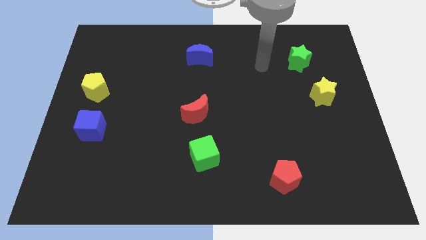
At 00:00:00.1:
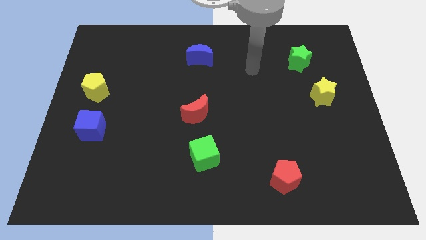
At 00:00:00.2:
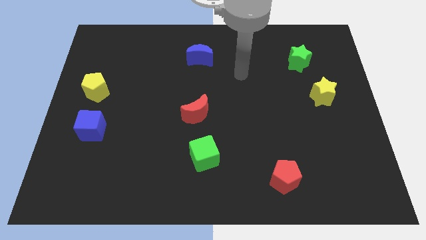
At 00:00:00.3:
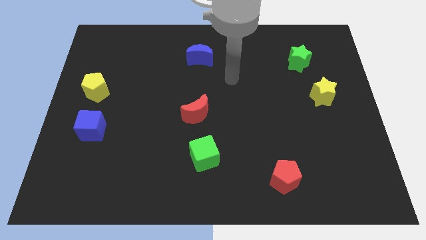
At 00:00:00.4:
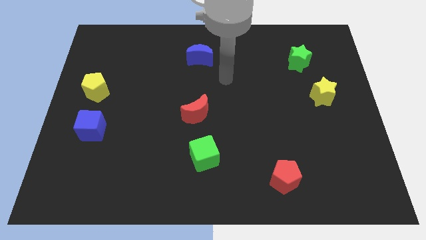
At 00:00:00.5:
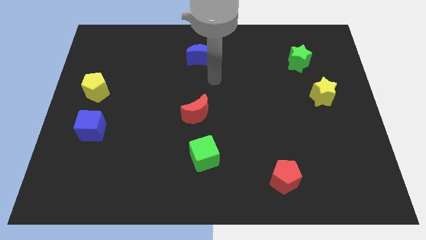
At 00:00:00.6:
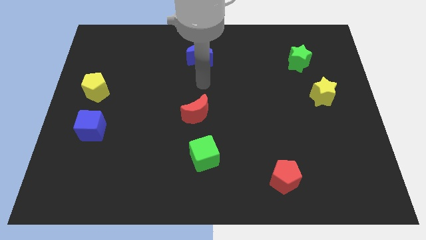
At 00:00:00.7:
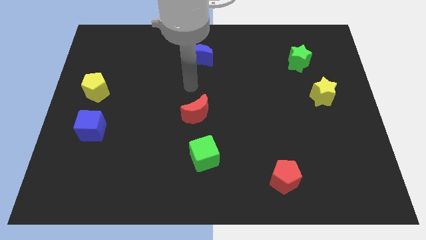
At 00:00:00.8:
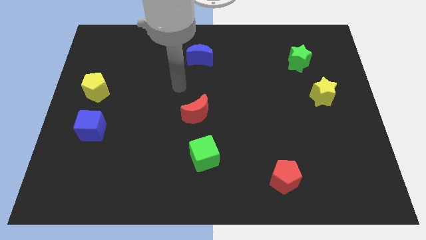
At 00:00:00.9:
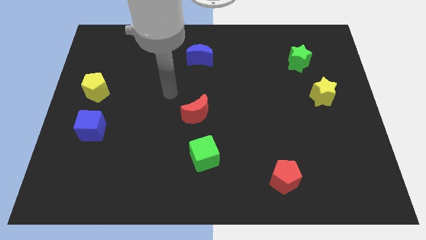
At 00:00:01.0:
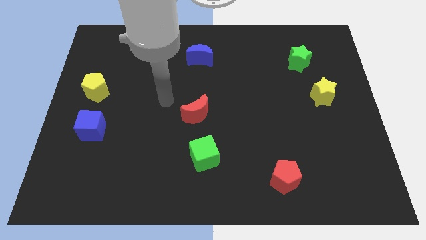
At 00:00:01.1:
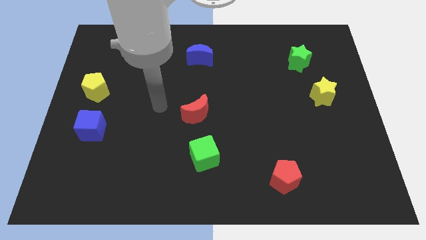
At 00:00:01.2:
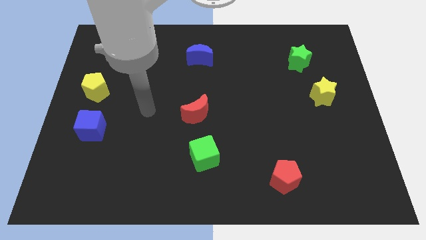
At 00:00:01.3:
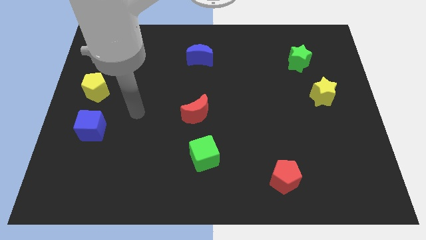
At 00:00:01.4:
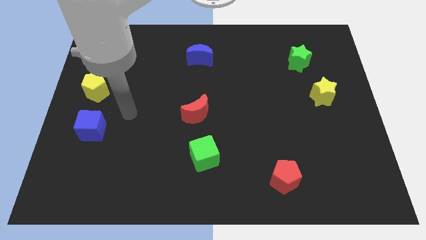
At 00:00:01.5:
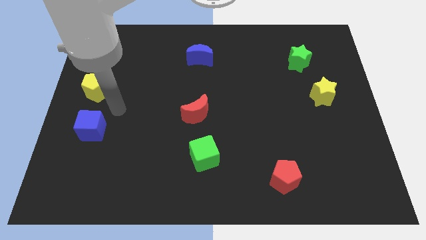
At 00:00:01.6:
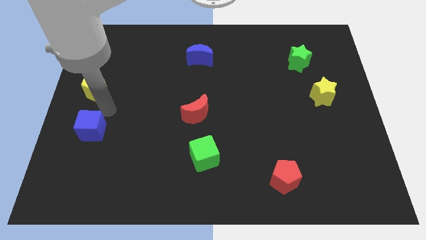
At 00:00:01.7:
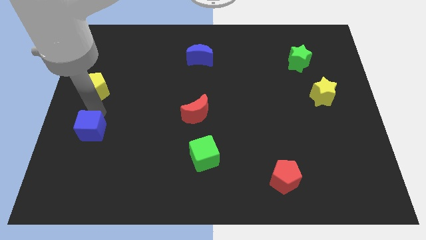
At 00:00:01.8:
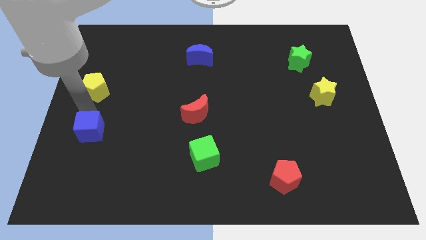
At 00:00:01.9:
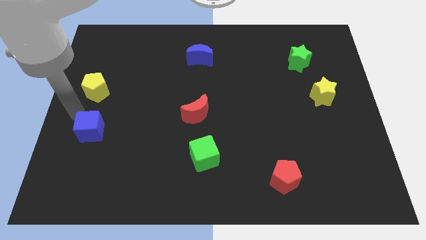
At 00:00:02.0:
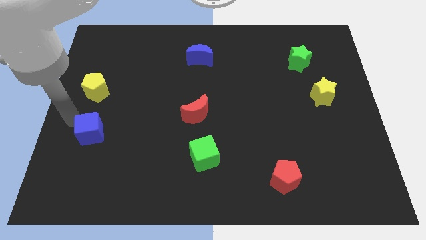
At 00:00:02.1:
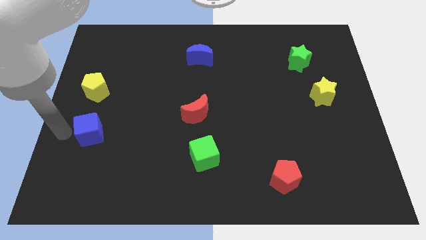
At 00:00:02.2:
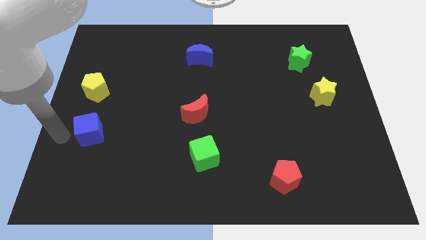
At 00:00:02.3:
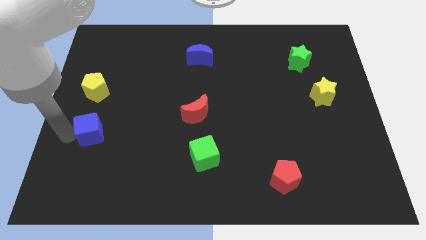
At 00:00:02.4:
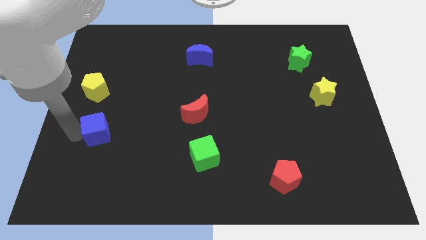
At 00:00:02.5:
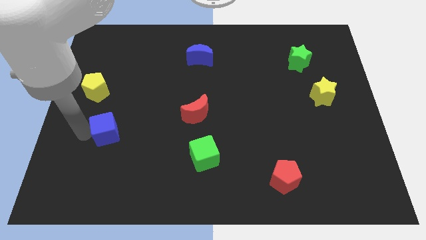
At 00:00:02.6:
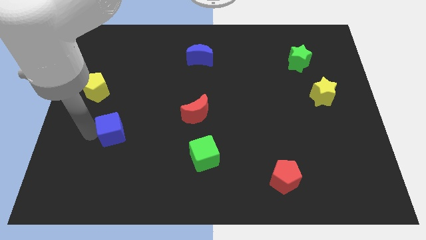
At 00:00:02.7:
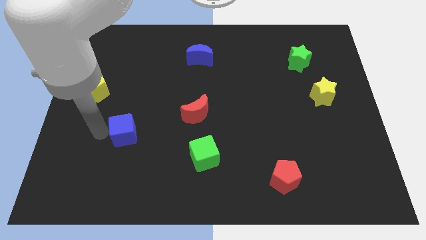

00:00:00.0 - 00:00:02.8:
push the blue cube a little right

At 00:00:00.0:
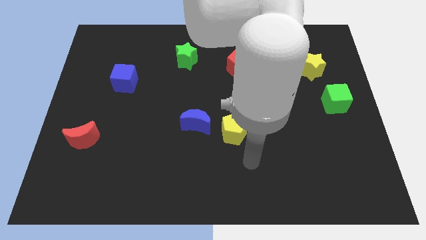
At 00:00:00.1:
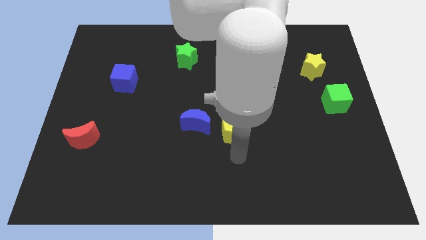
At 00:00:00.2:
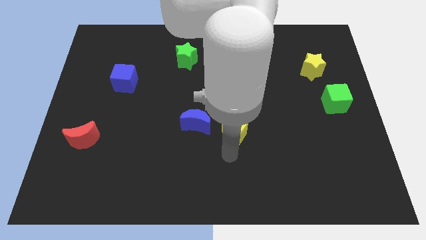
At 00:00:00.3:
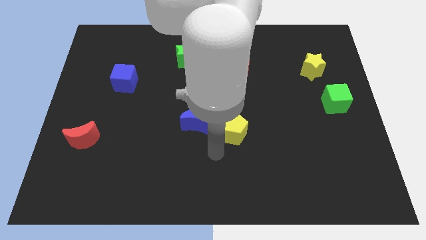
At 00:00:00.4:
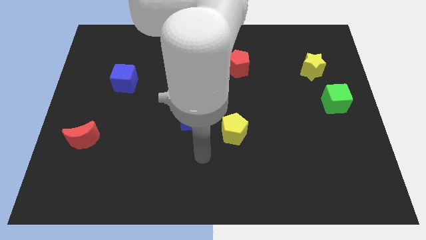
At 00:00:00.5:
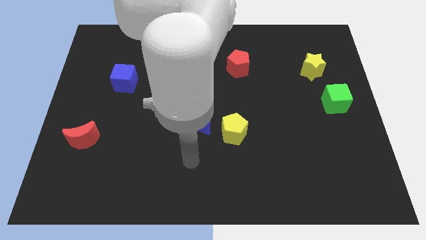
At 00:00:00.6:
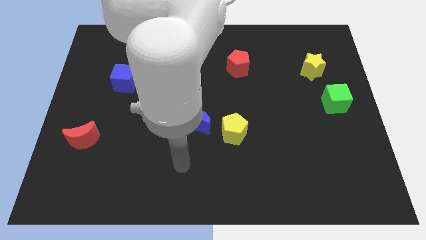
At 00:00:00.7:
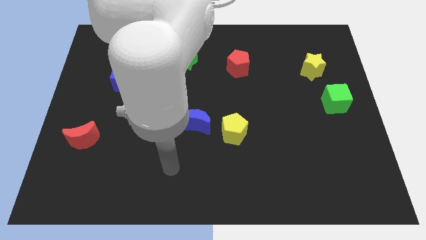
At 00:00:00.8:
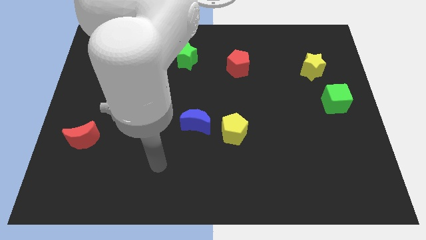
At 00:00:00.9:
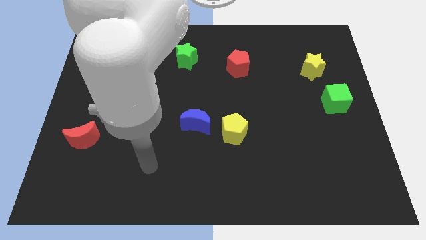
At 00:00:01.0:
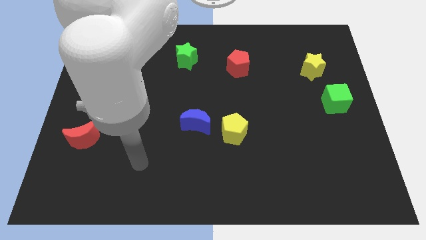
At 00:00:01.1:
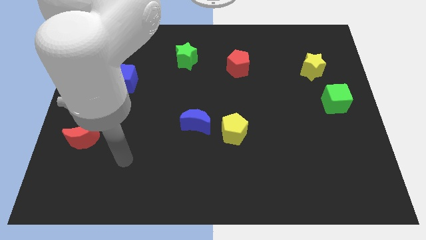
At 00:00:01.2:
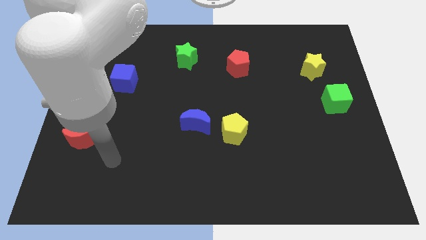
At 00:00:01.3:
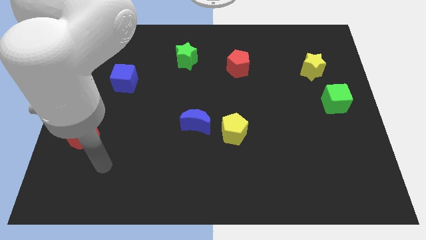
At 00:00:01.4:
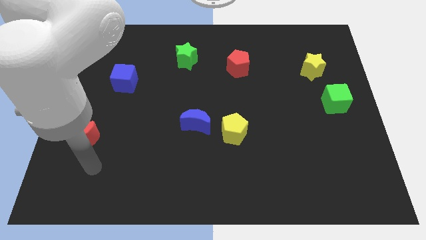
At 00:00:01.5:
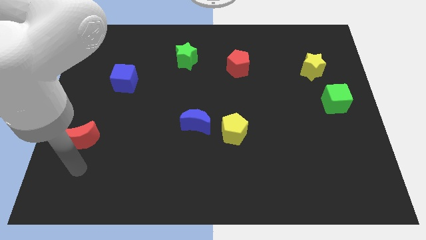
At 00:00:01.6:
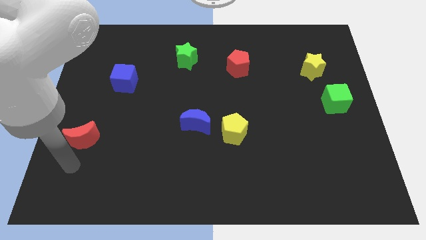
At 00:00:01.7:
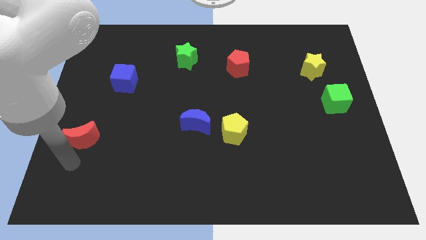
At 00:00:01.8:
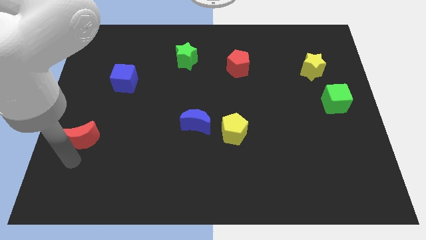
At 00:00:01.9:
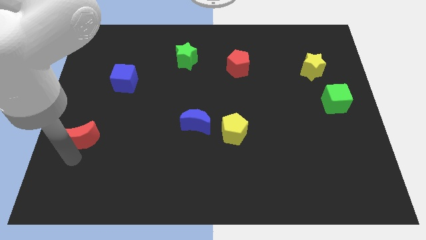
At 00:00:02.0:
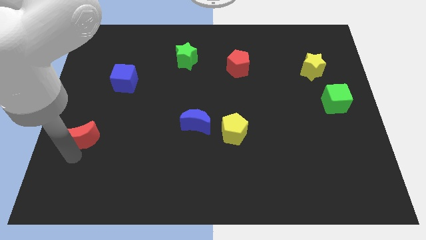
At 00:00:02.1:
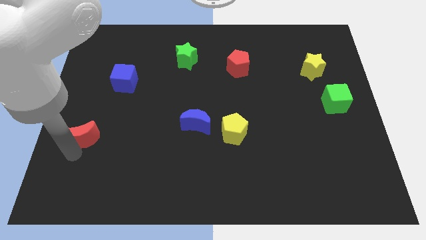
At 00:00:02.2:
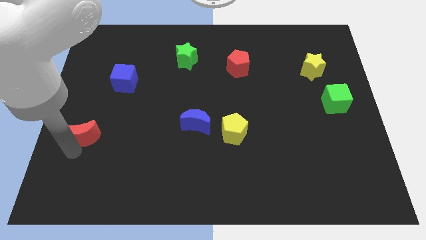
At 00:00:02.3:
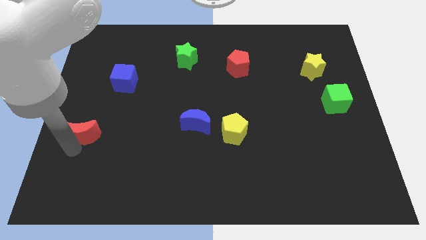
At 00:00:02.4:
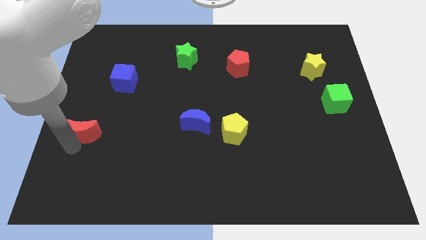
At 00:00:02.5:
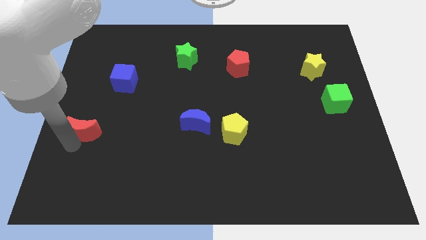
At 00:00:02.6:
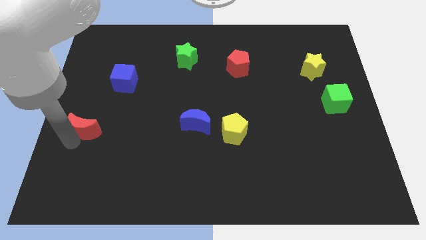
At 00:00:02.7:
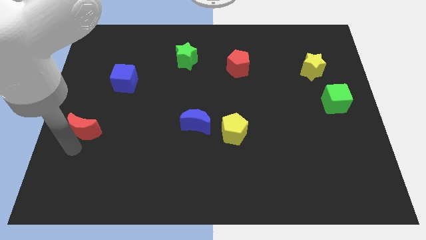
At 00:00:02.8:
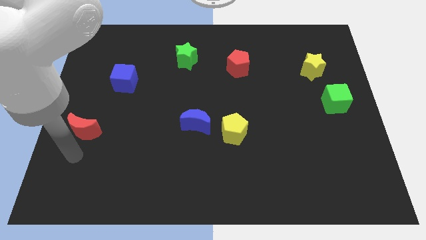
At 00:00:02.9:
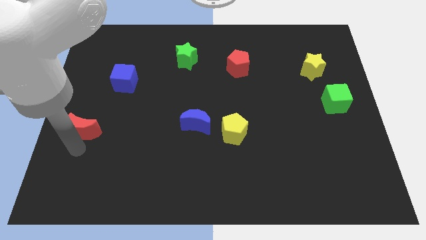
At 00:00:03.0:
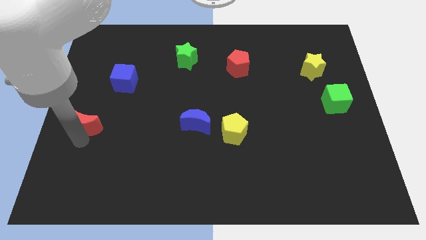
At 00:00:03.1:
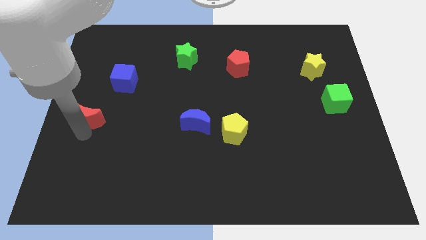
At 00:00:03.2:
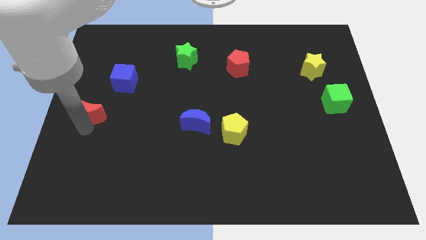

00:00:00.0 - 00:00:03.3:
move the red moon up slightly

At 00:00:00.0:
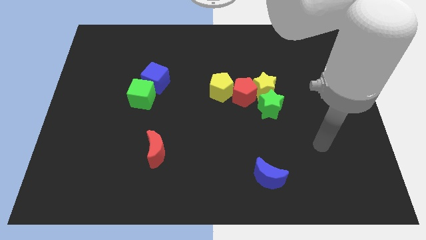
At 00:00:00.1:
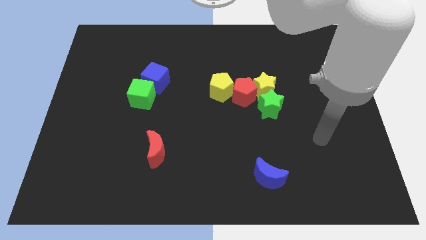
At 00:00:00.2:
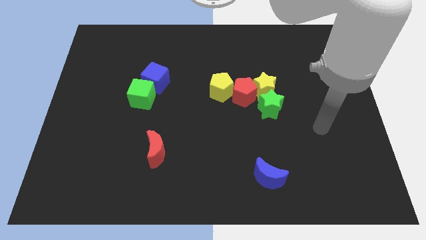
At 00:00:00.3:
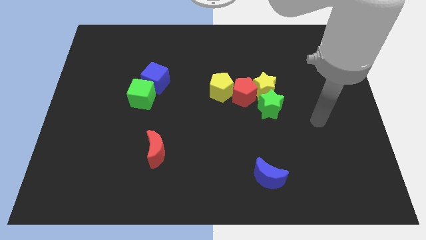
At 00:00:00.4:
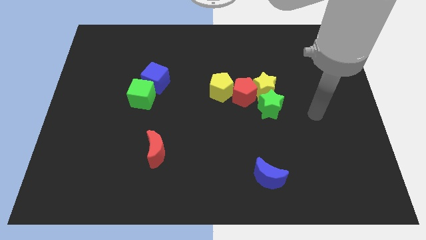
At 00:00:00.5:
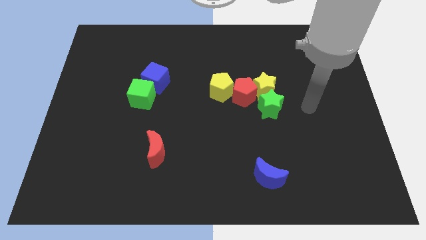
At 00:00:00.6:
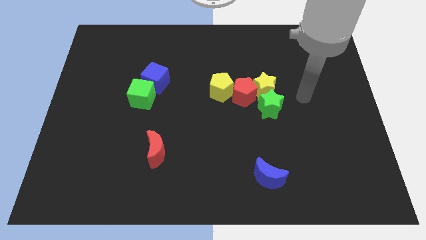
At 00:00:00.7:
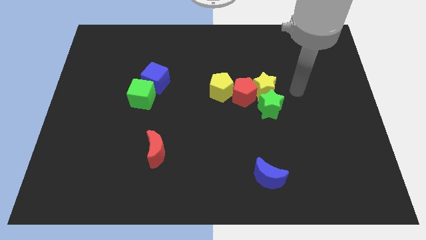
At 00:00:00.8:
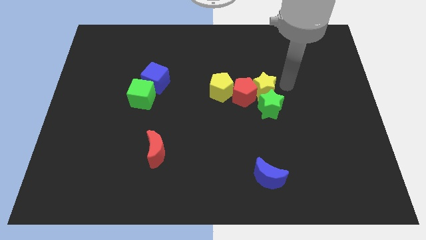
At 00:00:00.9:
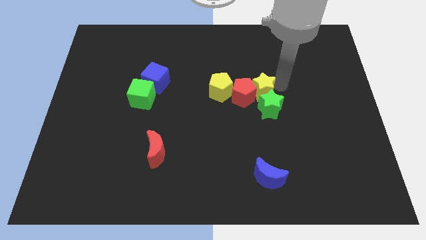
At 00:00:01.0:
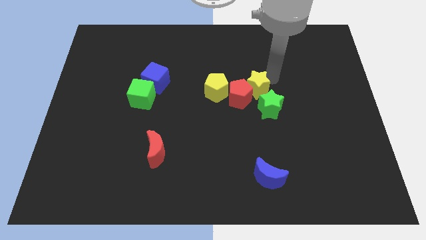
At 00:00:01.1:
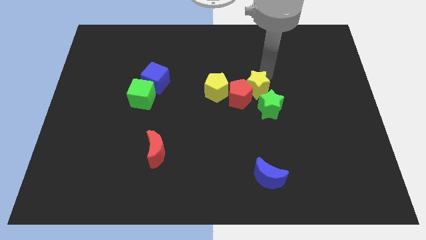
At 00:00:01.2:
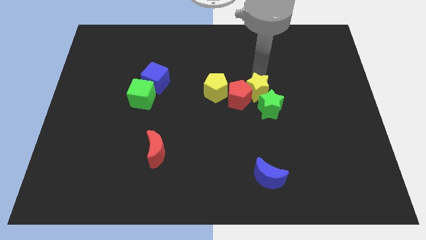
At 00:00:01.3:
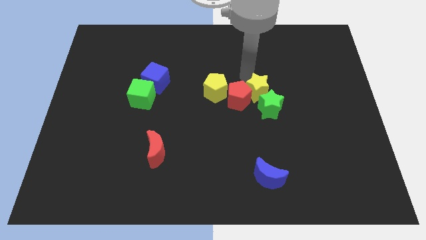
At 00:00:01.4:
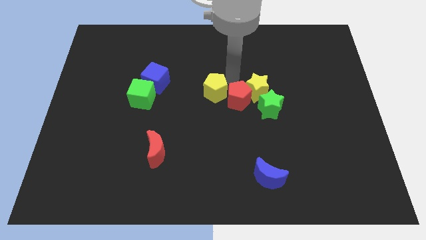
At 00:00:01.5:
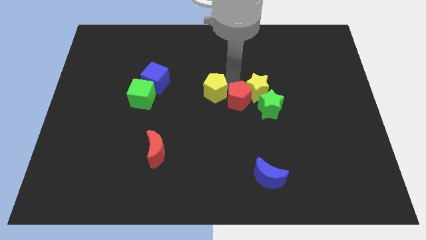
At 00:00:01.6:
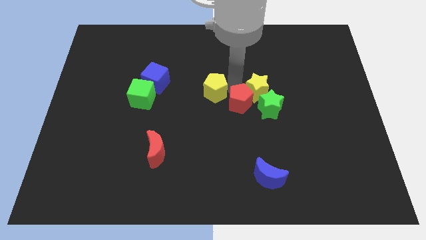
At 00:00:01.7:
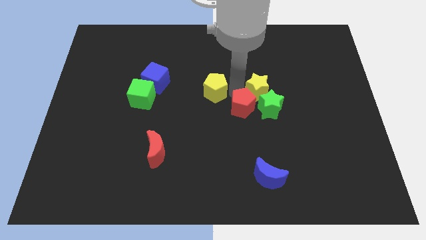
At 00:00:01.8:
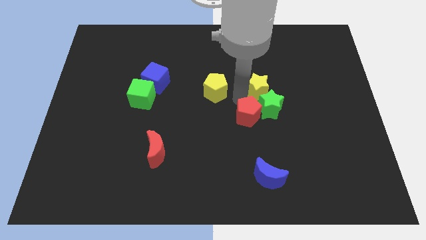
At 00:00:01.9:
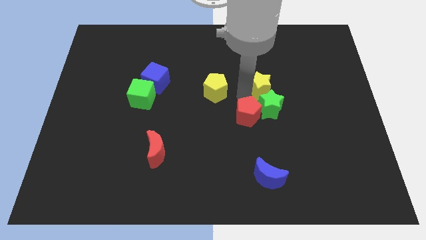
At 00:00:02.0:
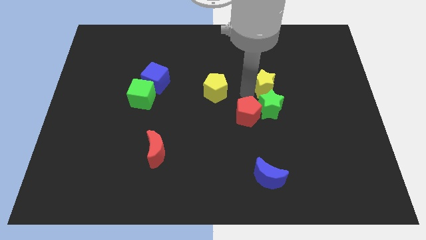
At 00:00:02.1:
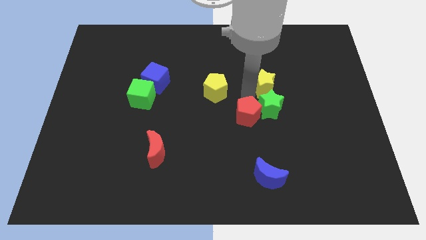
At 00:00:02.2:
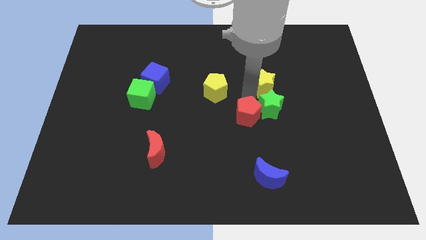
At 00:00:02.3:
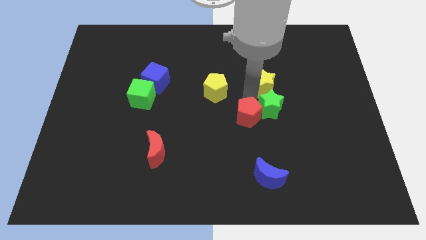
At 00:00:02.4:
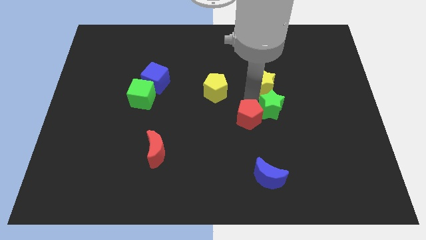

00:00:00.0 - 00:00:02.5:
push the red pentagon down a bit
